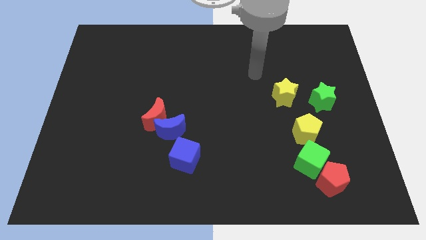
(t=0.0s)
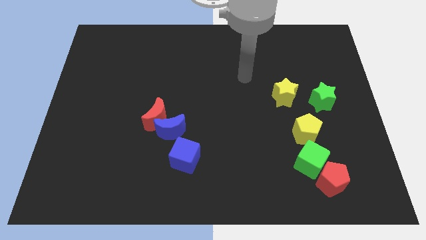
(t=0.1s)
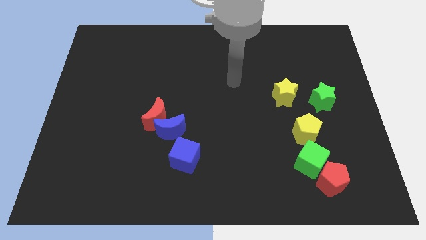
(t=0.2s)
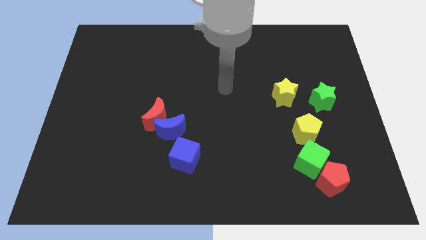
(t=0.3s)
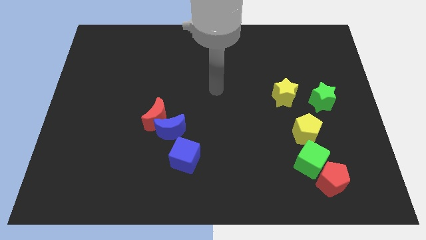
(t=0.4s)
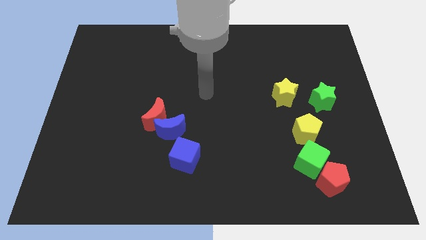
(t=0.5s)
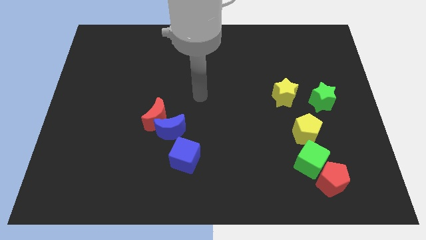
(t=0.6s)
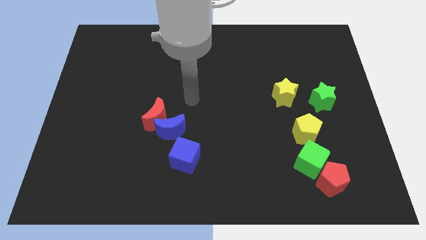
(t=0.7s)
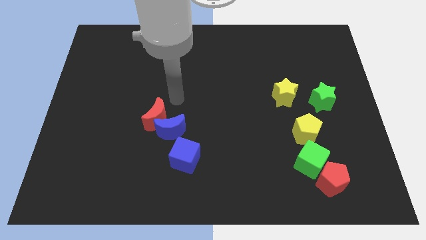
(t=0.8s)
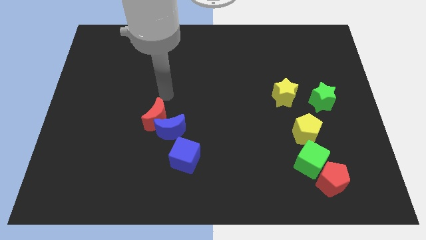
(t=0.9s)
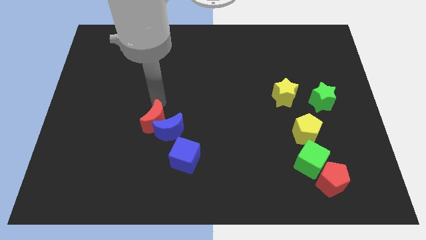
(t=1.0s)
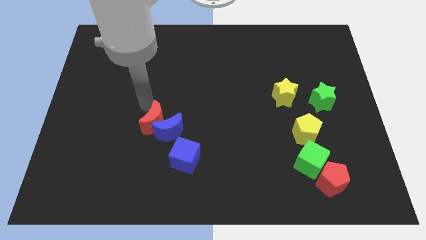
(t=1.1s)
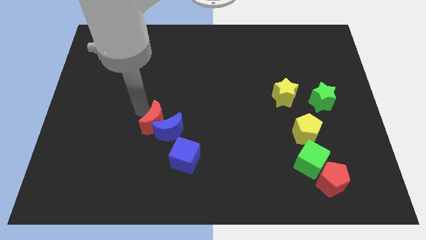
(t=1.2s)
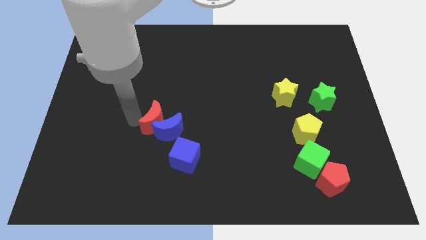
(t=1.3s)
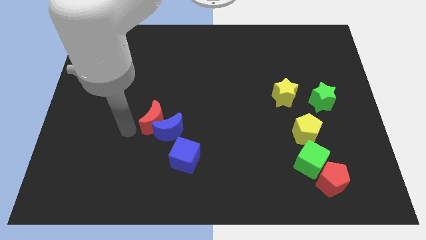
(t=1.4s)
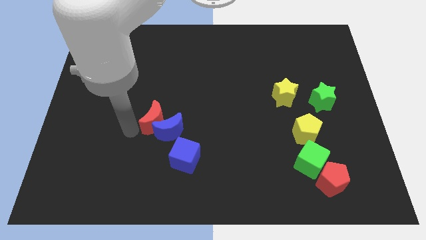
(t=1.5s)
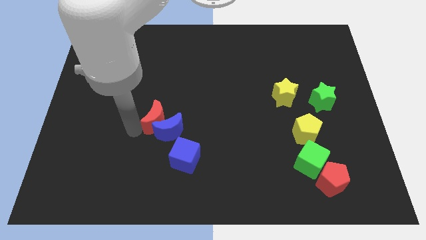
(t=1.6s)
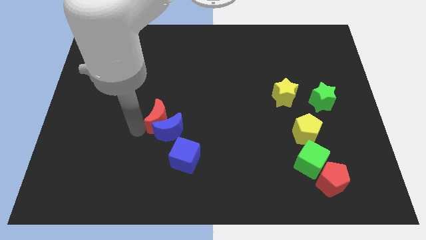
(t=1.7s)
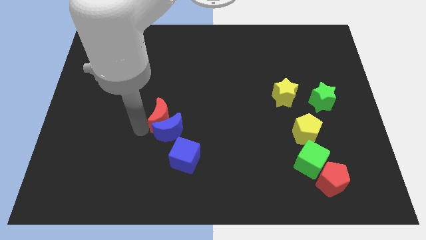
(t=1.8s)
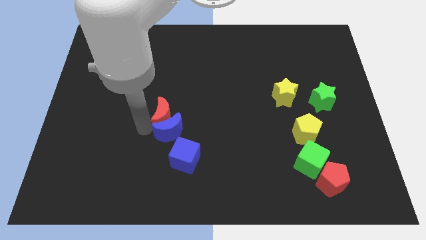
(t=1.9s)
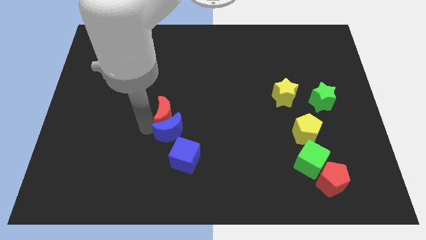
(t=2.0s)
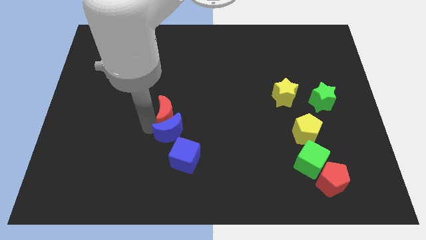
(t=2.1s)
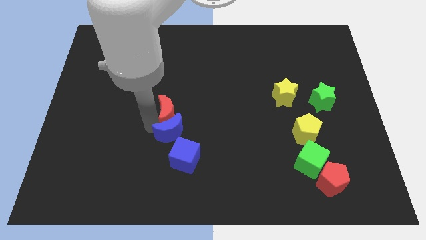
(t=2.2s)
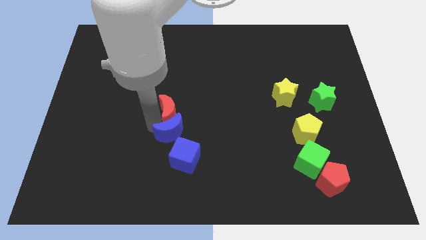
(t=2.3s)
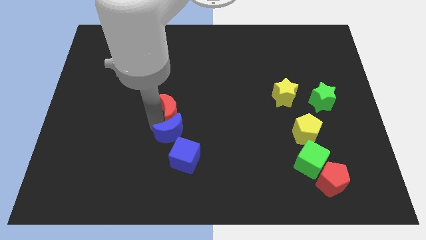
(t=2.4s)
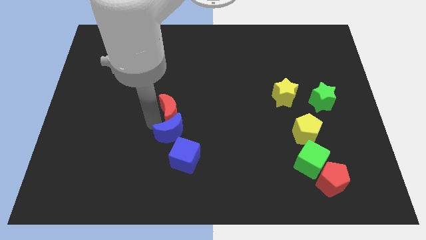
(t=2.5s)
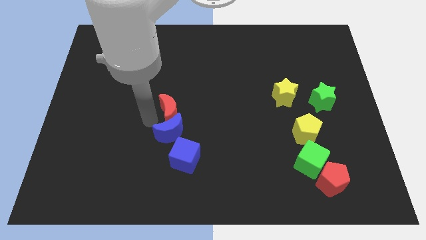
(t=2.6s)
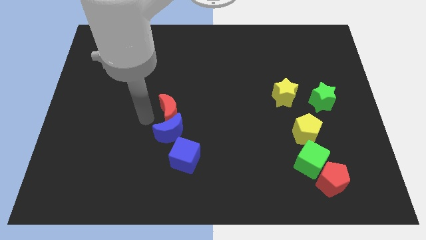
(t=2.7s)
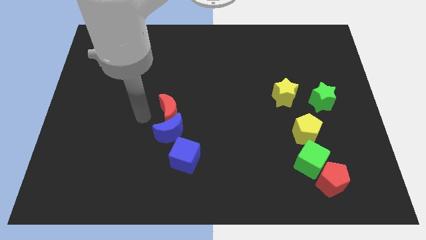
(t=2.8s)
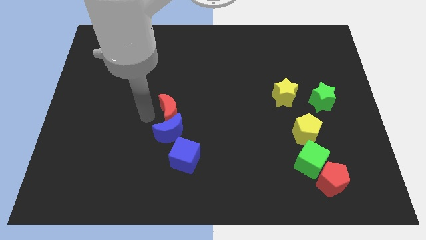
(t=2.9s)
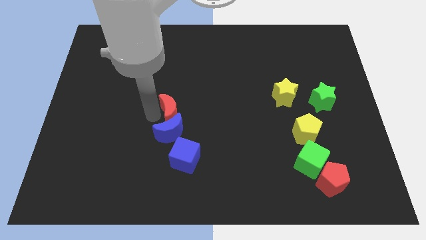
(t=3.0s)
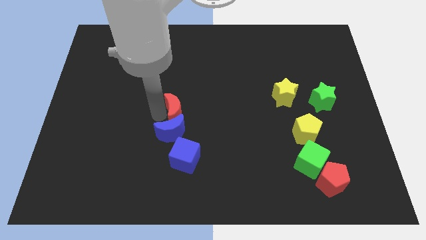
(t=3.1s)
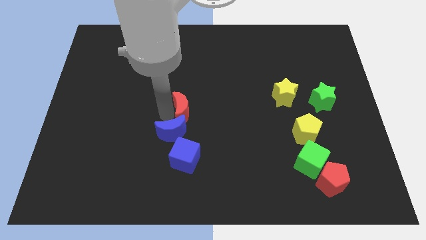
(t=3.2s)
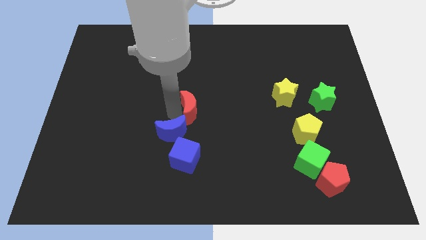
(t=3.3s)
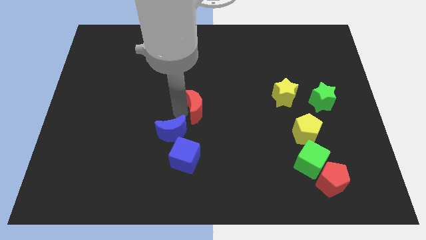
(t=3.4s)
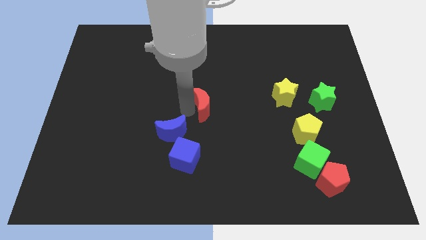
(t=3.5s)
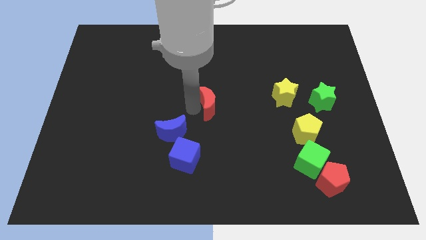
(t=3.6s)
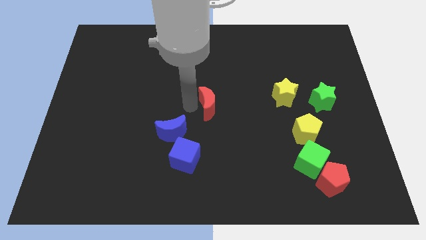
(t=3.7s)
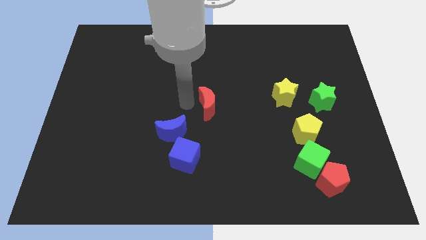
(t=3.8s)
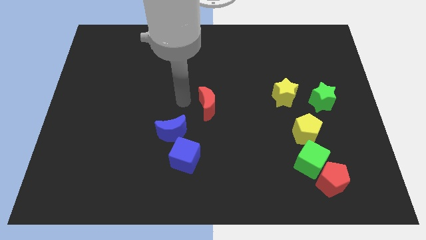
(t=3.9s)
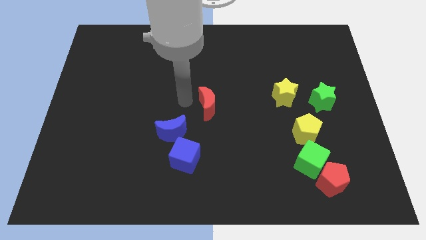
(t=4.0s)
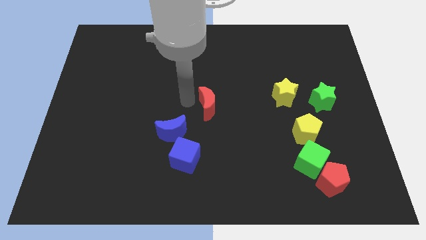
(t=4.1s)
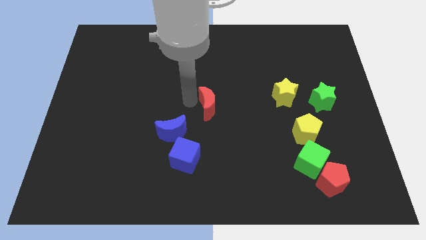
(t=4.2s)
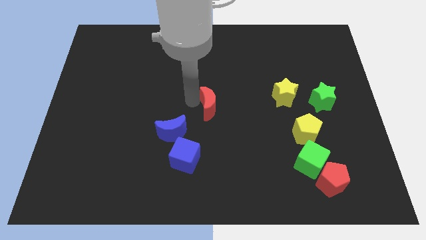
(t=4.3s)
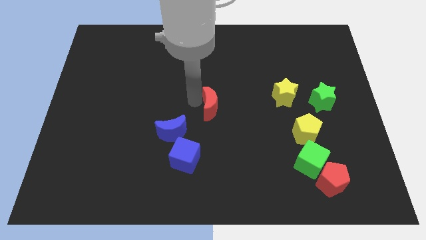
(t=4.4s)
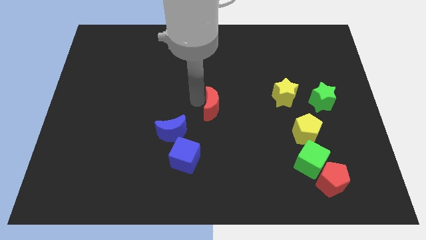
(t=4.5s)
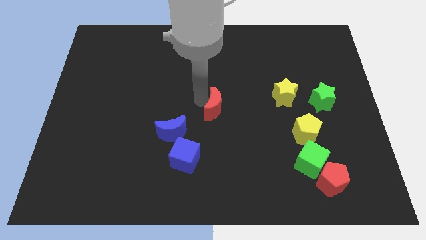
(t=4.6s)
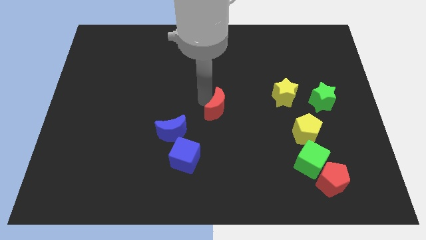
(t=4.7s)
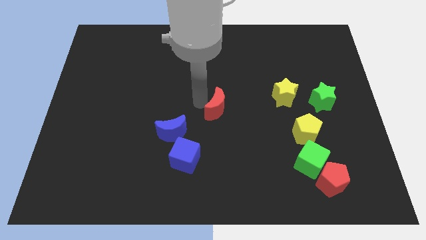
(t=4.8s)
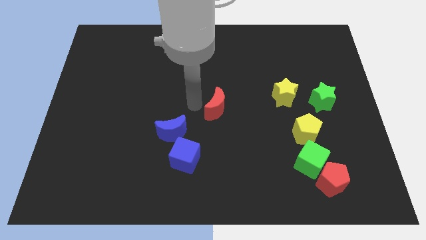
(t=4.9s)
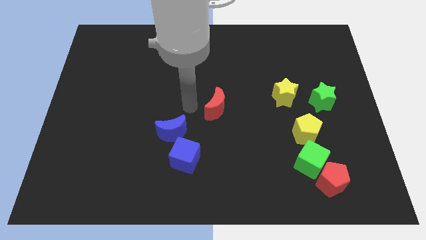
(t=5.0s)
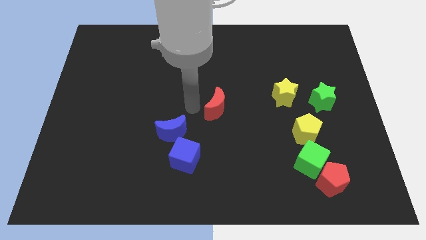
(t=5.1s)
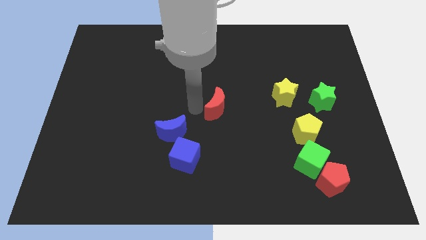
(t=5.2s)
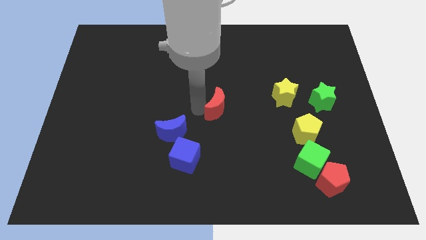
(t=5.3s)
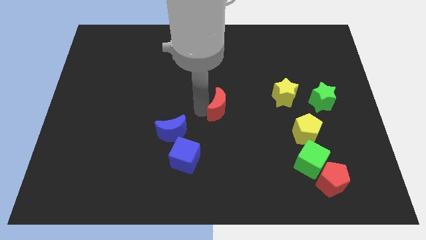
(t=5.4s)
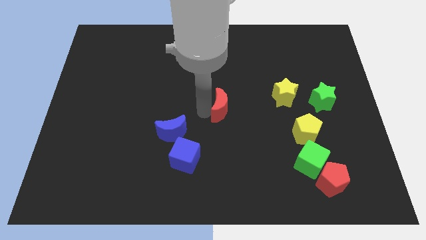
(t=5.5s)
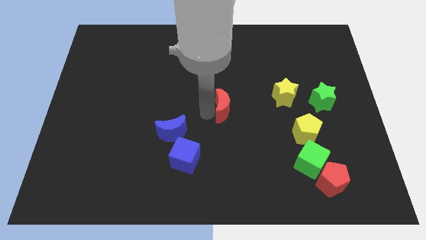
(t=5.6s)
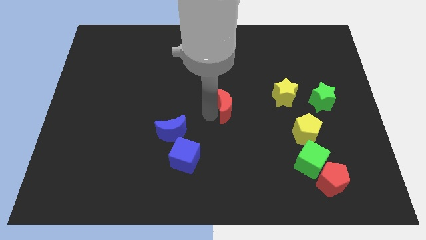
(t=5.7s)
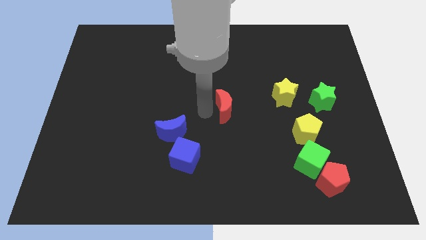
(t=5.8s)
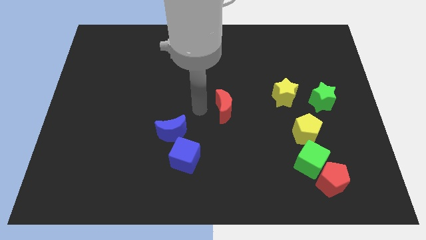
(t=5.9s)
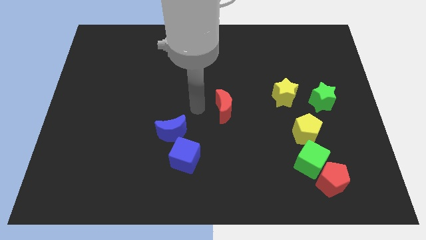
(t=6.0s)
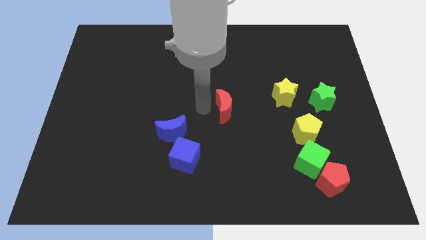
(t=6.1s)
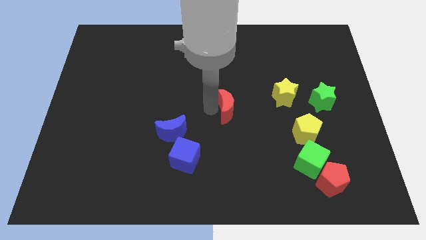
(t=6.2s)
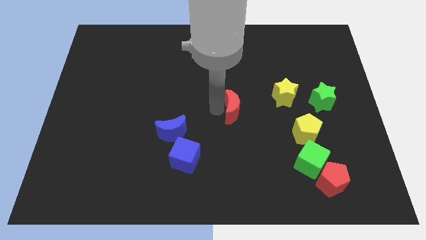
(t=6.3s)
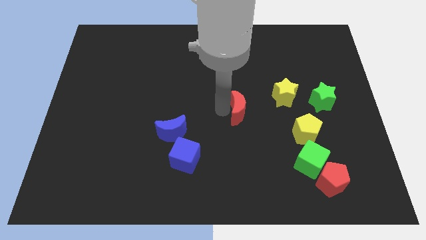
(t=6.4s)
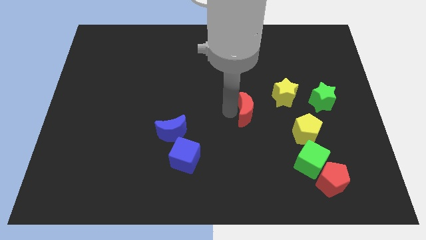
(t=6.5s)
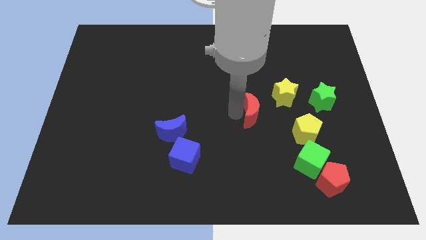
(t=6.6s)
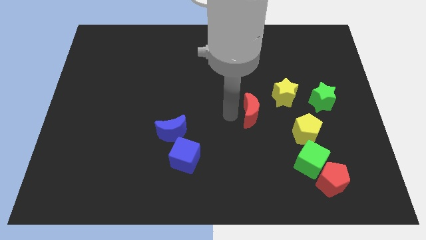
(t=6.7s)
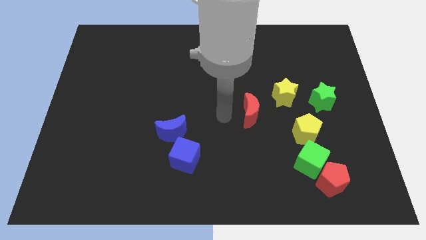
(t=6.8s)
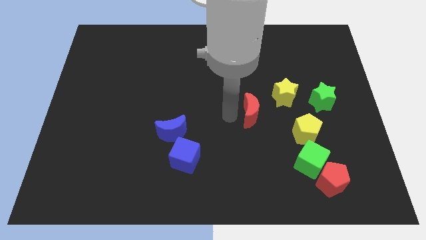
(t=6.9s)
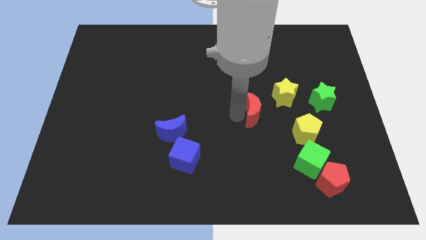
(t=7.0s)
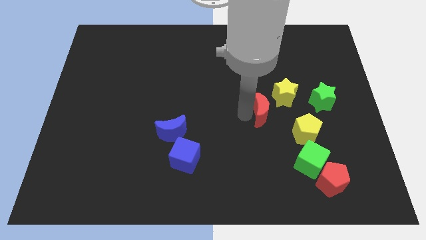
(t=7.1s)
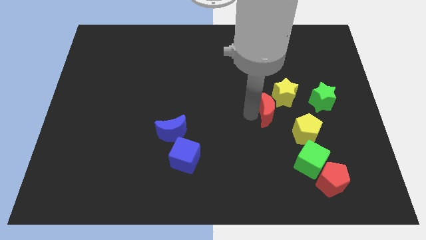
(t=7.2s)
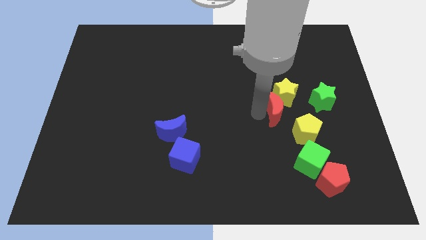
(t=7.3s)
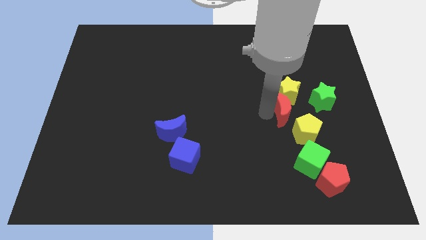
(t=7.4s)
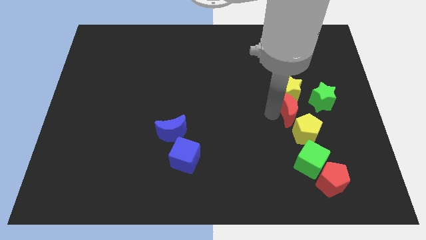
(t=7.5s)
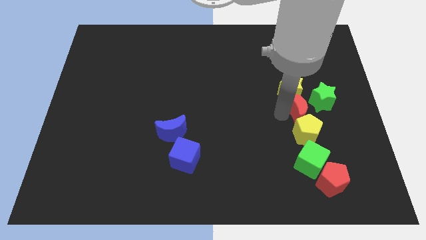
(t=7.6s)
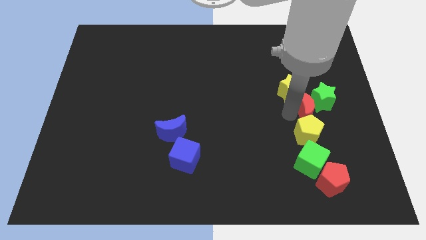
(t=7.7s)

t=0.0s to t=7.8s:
put the red moon to the green star
